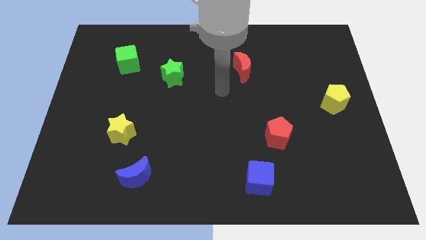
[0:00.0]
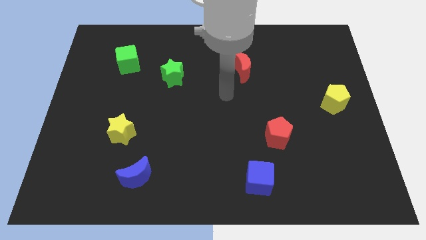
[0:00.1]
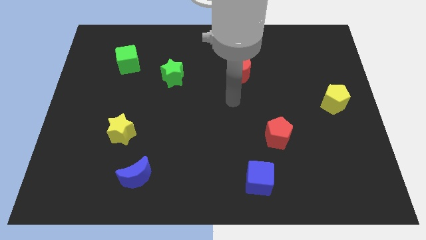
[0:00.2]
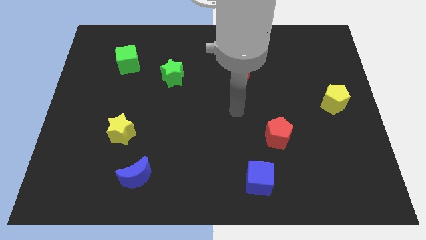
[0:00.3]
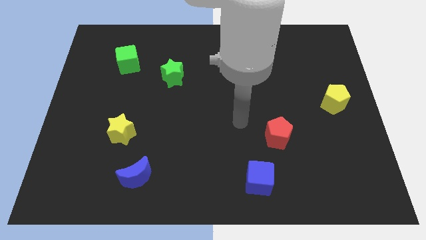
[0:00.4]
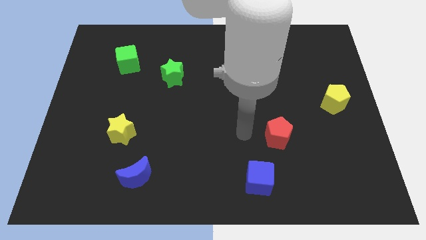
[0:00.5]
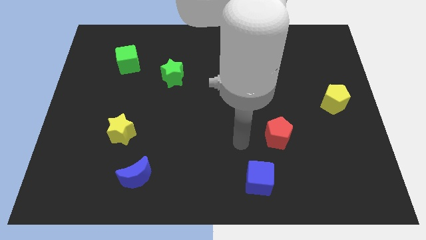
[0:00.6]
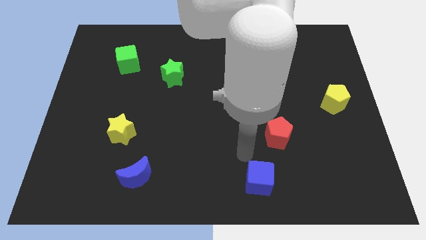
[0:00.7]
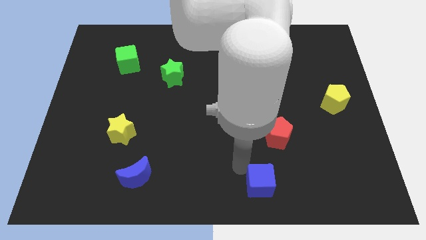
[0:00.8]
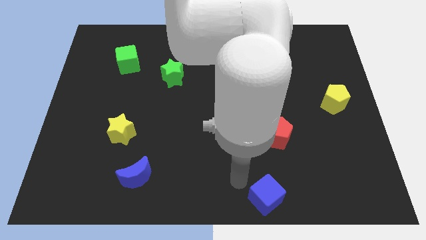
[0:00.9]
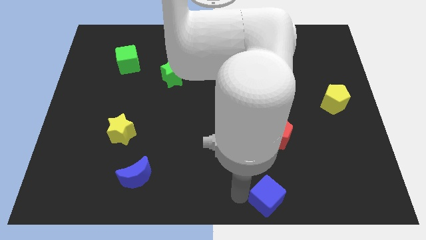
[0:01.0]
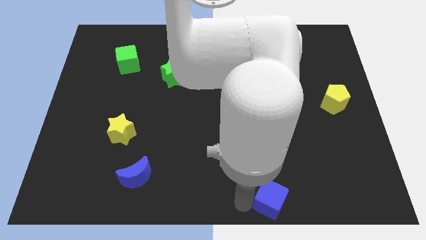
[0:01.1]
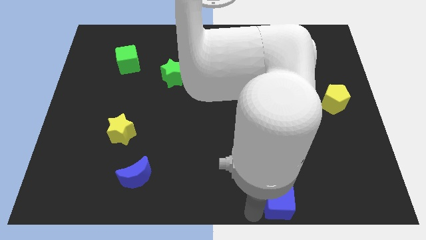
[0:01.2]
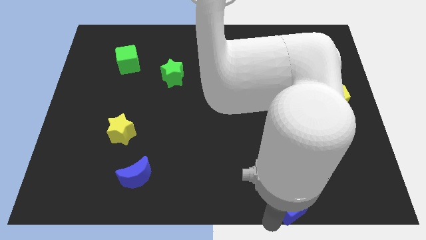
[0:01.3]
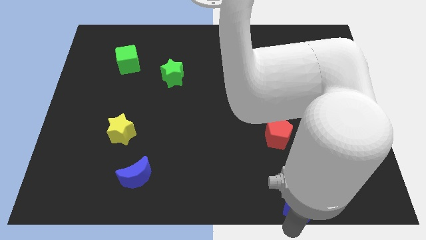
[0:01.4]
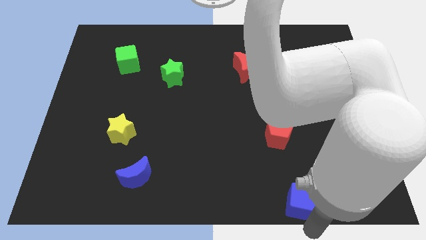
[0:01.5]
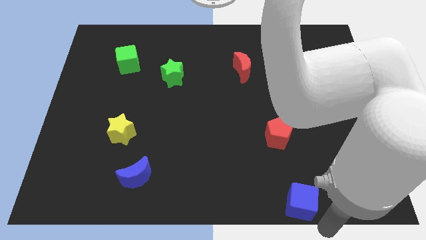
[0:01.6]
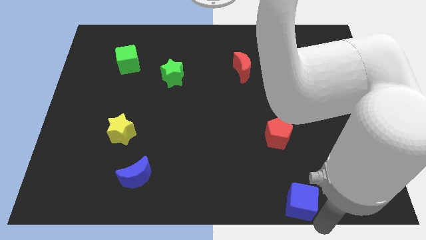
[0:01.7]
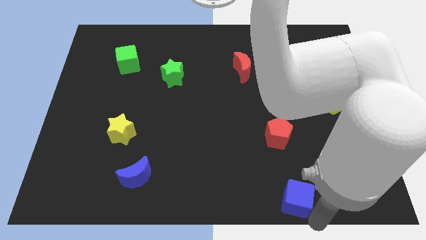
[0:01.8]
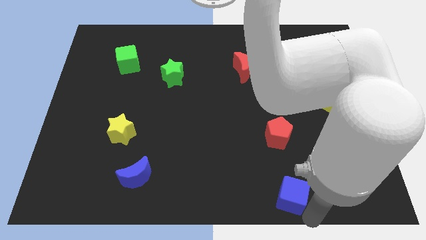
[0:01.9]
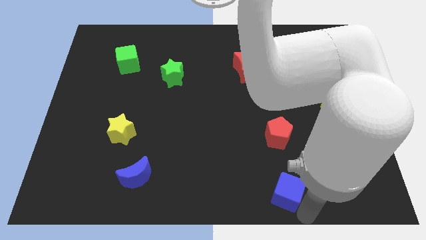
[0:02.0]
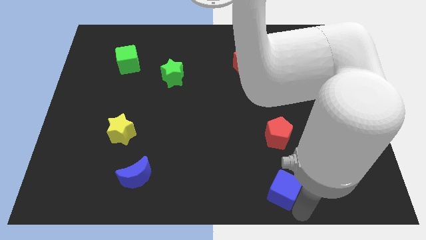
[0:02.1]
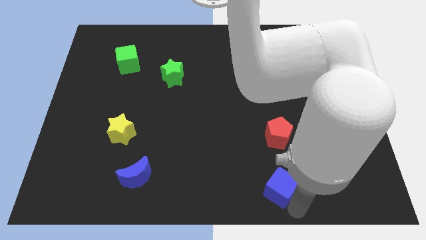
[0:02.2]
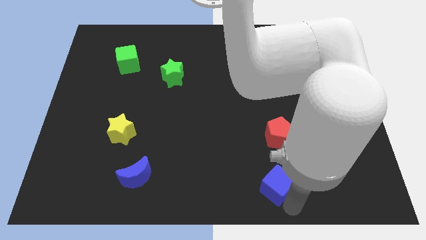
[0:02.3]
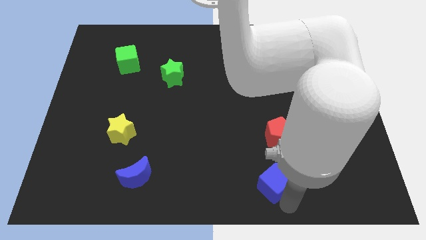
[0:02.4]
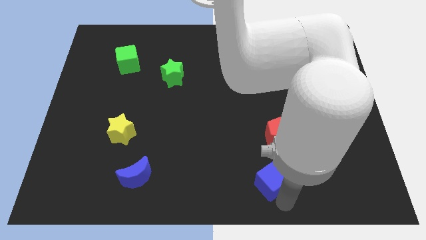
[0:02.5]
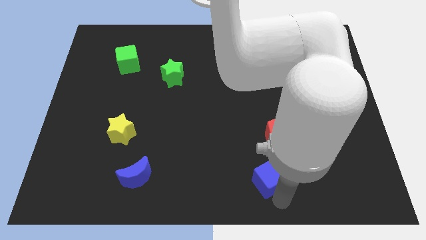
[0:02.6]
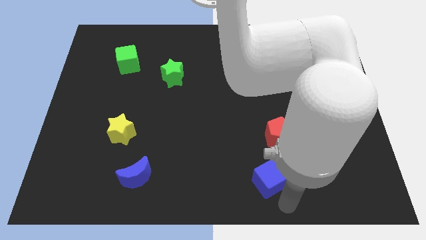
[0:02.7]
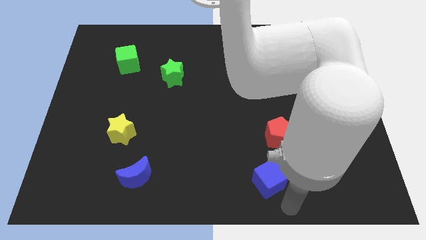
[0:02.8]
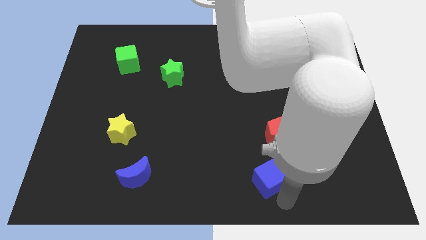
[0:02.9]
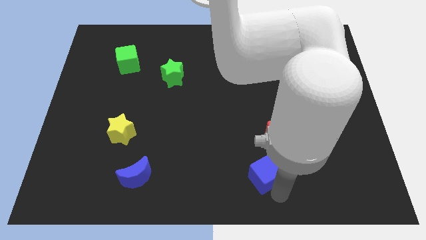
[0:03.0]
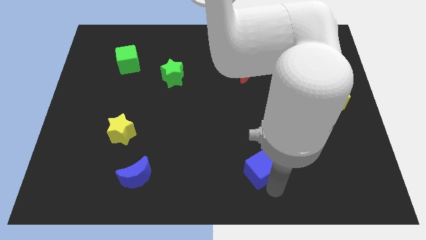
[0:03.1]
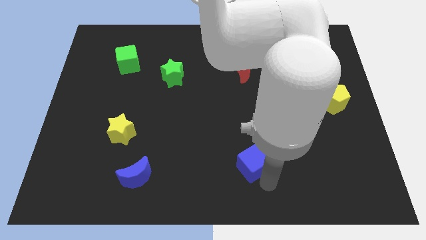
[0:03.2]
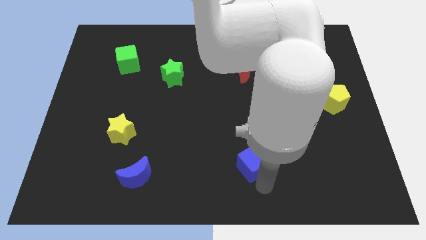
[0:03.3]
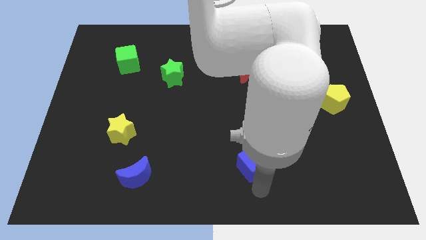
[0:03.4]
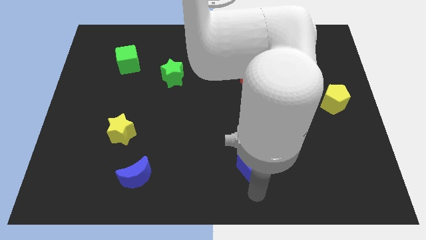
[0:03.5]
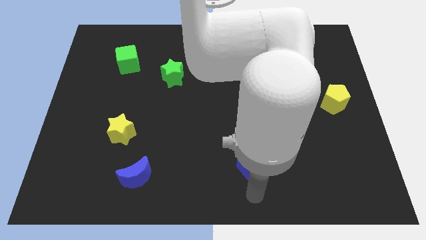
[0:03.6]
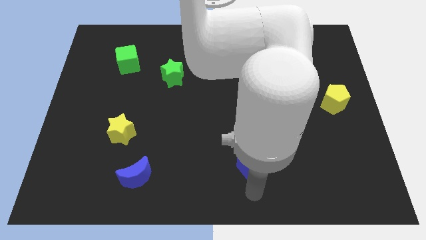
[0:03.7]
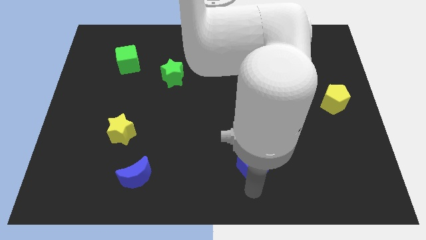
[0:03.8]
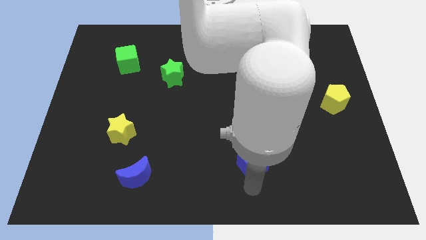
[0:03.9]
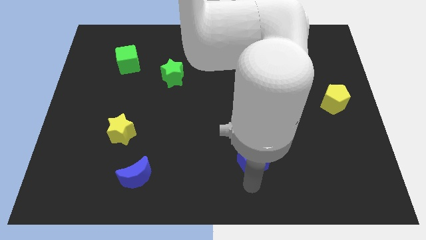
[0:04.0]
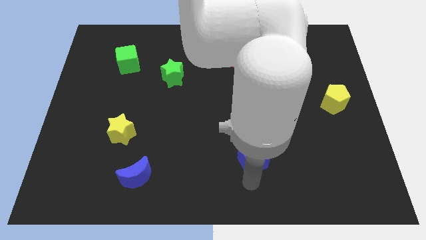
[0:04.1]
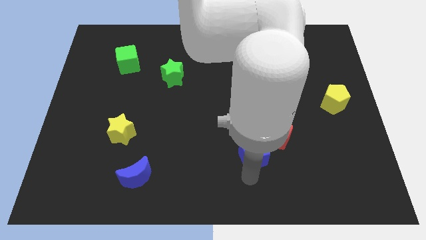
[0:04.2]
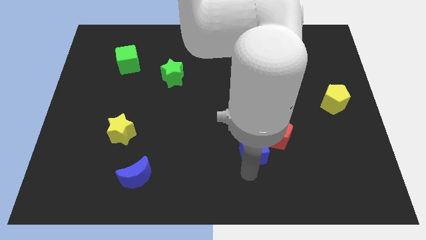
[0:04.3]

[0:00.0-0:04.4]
move the blue cube a bit up

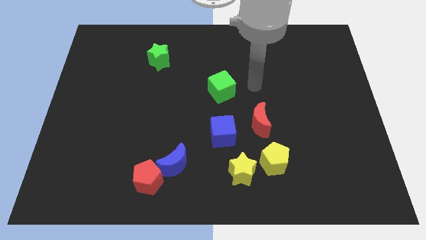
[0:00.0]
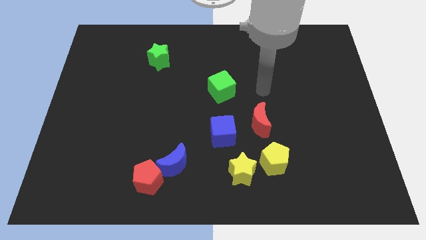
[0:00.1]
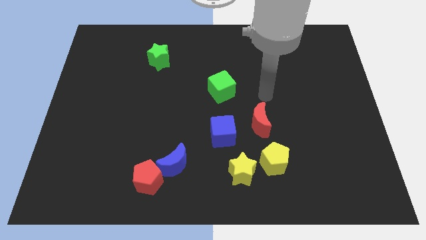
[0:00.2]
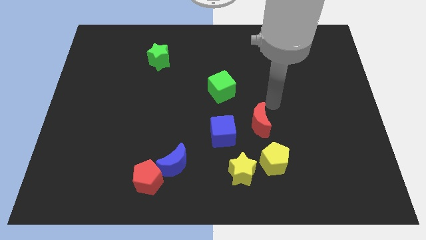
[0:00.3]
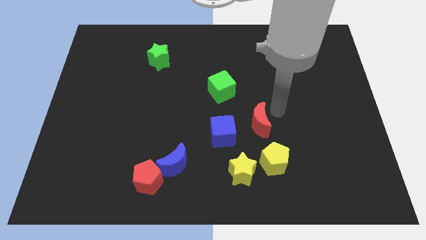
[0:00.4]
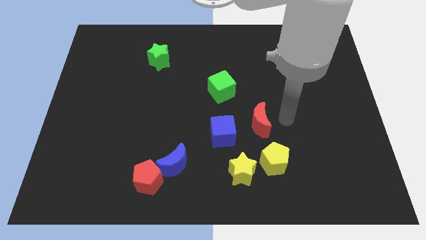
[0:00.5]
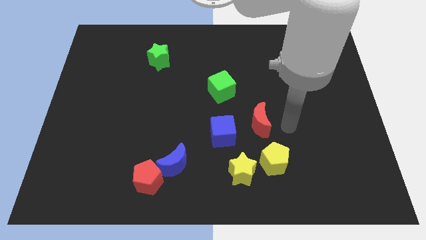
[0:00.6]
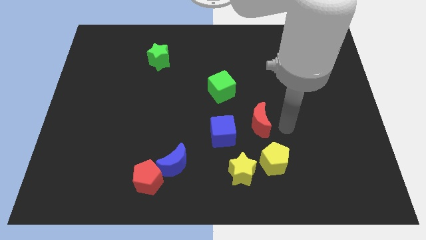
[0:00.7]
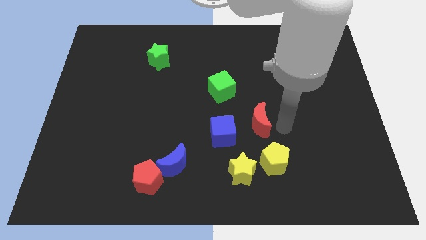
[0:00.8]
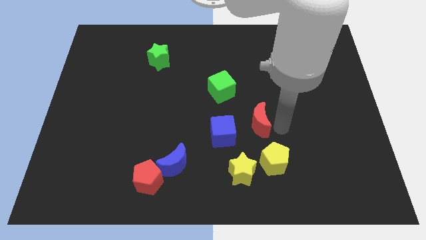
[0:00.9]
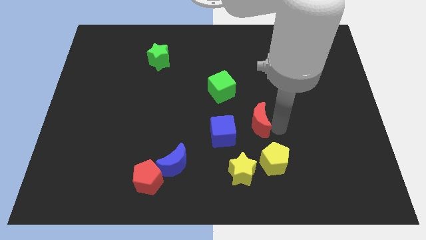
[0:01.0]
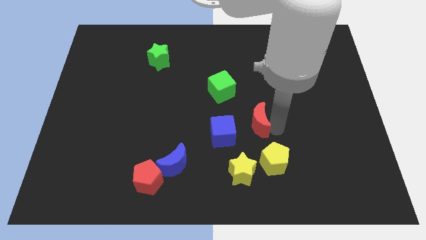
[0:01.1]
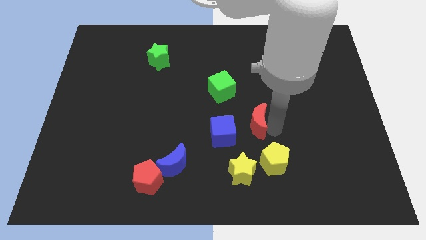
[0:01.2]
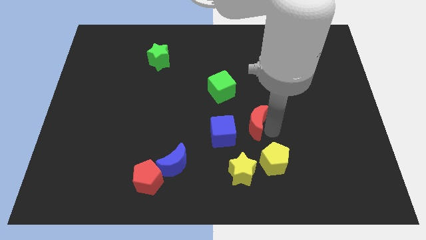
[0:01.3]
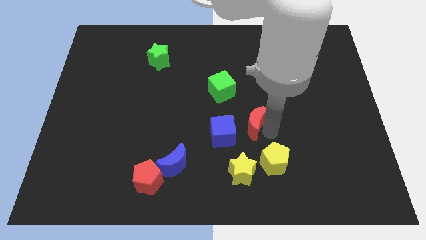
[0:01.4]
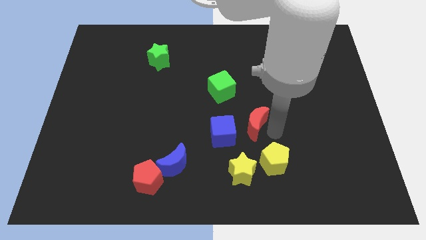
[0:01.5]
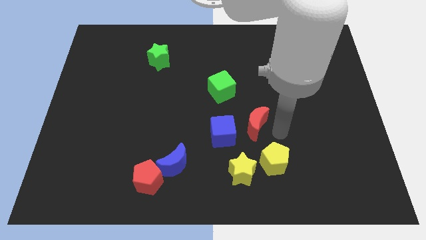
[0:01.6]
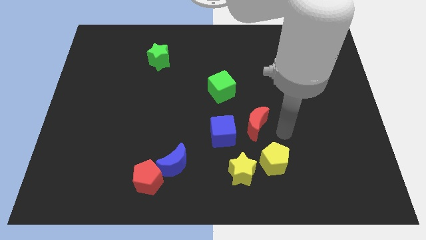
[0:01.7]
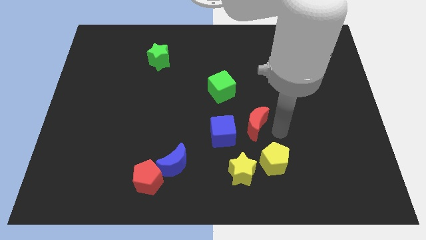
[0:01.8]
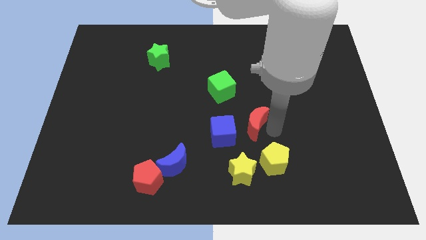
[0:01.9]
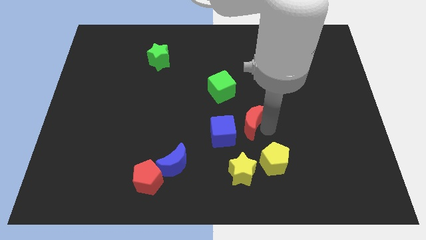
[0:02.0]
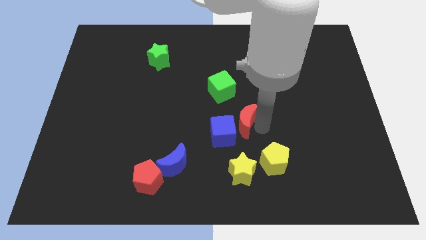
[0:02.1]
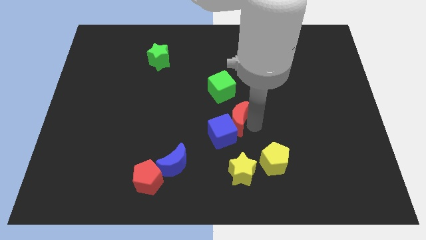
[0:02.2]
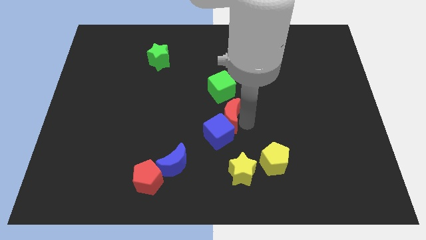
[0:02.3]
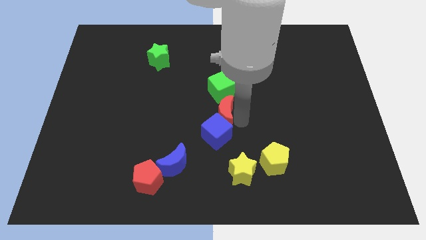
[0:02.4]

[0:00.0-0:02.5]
slide the red moon slightly to the left

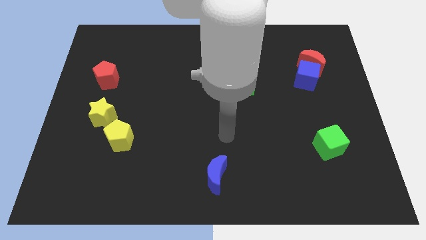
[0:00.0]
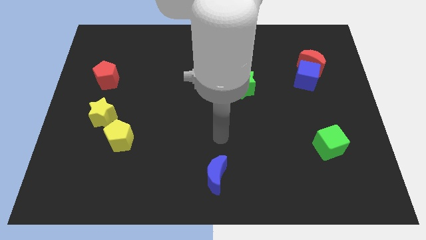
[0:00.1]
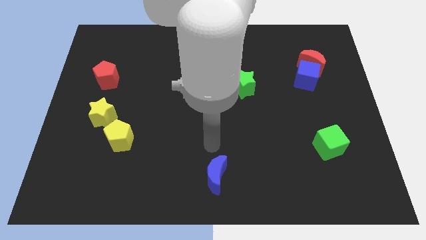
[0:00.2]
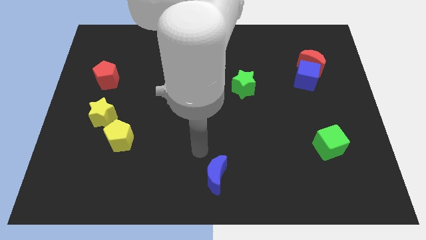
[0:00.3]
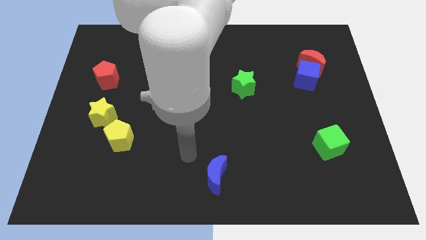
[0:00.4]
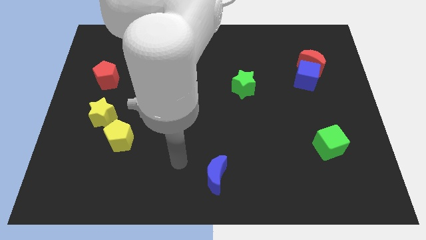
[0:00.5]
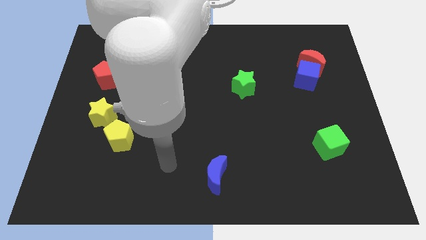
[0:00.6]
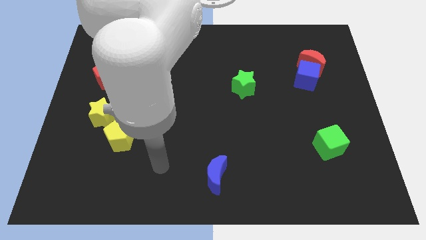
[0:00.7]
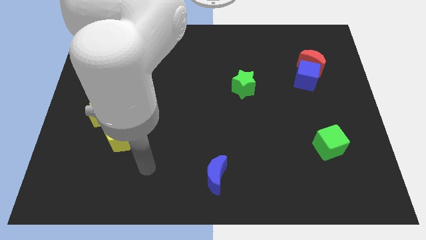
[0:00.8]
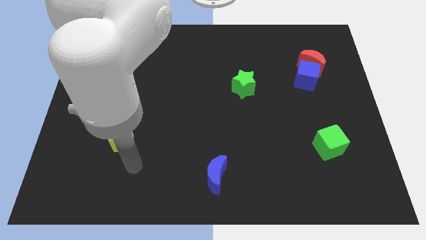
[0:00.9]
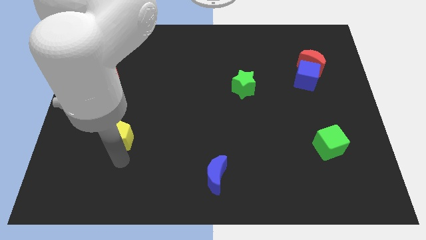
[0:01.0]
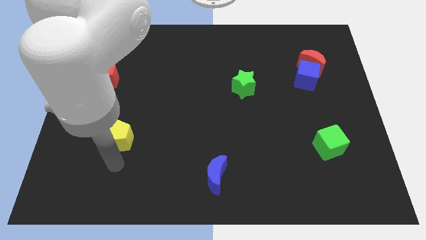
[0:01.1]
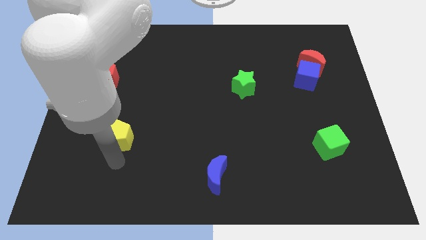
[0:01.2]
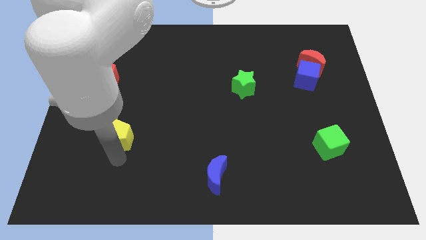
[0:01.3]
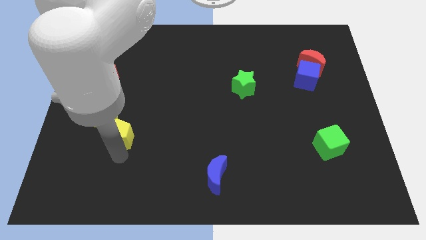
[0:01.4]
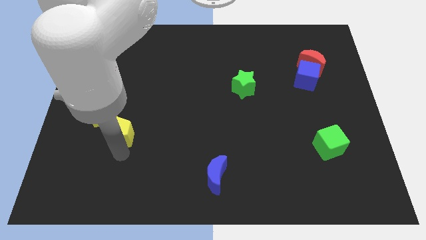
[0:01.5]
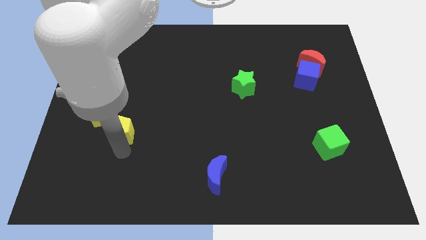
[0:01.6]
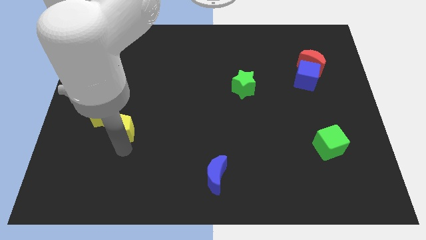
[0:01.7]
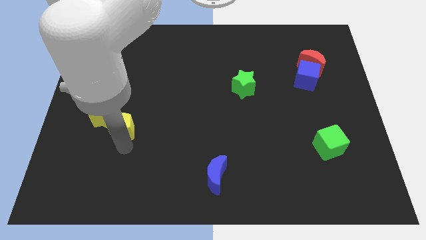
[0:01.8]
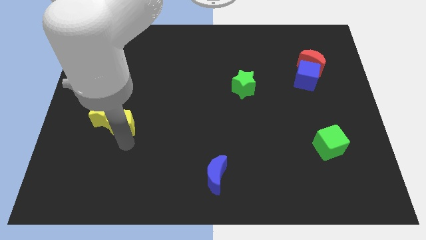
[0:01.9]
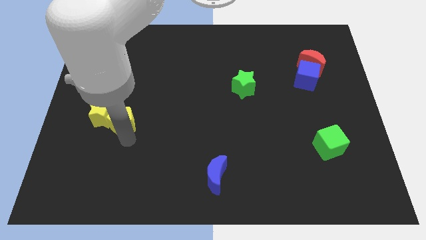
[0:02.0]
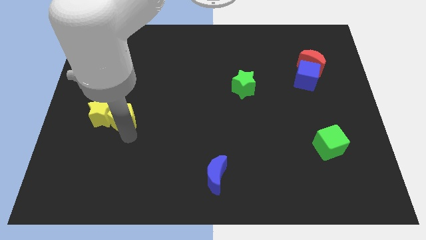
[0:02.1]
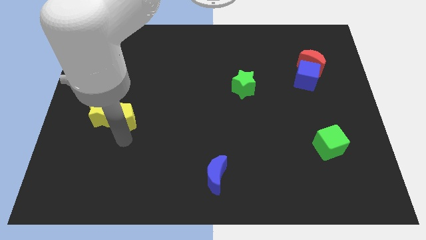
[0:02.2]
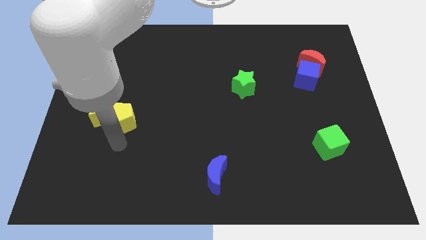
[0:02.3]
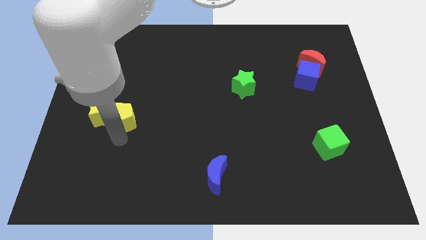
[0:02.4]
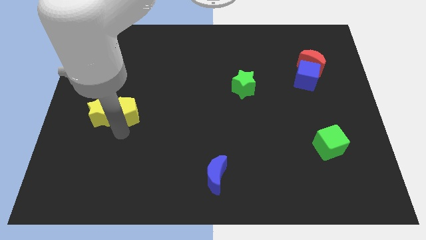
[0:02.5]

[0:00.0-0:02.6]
slightly move the yellow pentagon up
